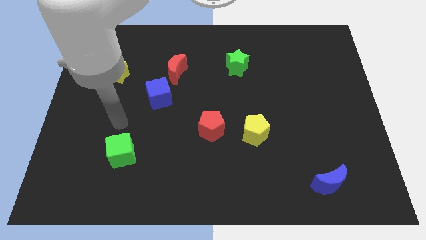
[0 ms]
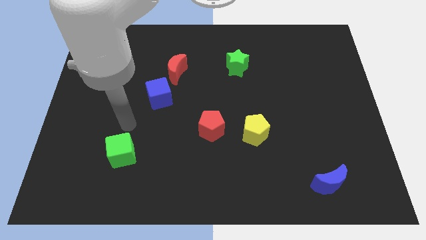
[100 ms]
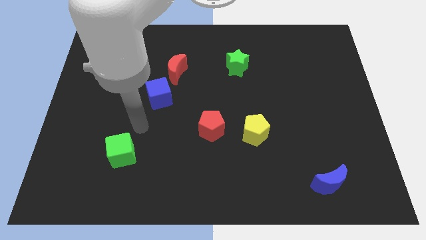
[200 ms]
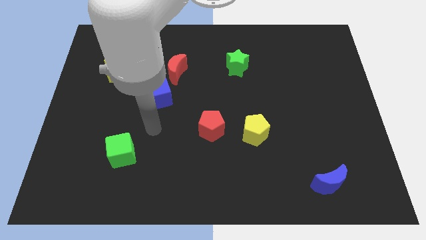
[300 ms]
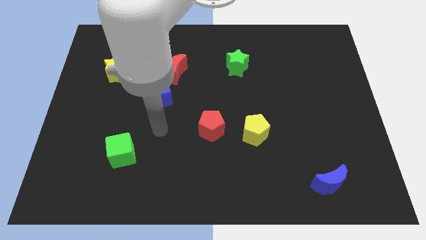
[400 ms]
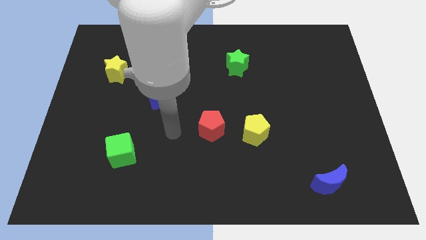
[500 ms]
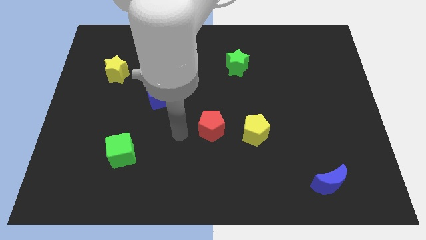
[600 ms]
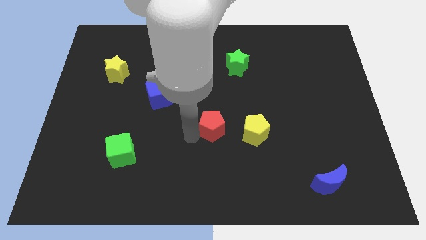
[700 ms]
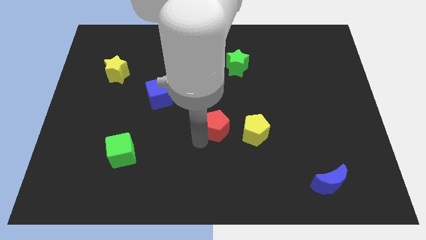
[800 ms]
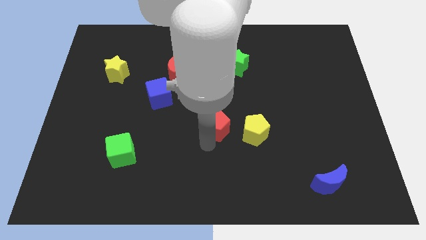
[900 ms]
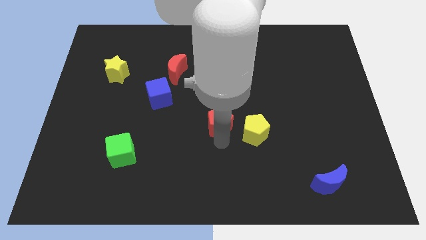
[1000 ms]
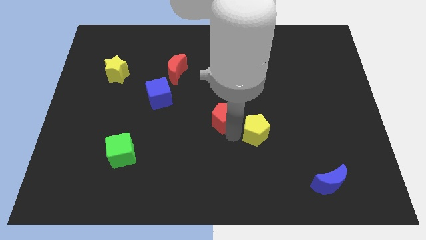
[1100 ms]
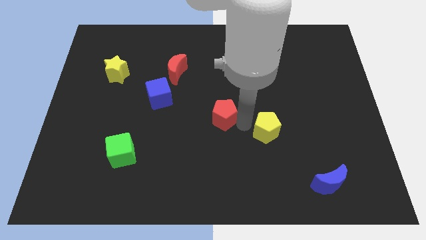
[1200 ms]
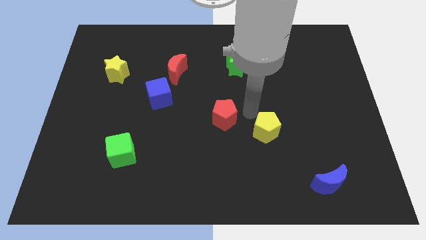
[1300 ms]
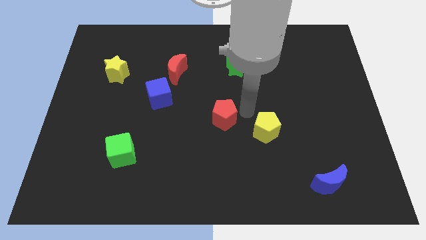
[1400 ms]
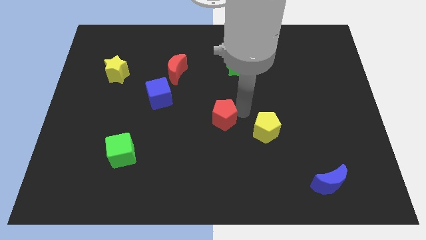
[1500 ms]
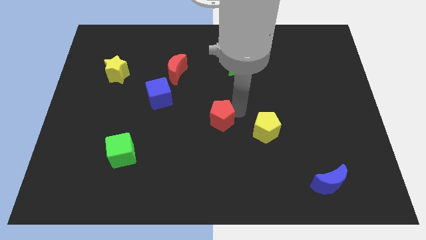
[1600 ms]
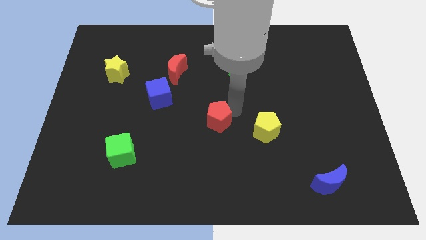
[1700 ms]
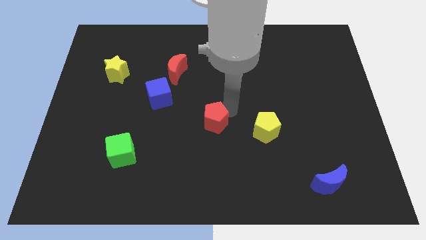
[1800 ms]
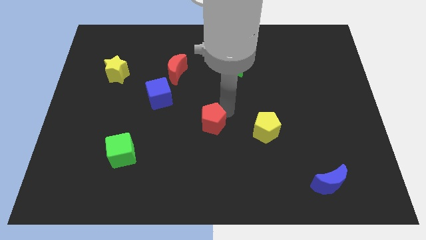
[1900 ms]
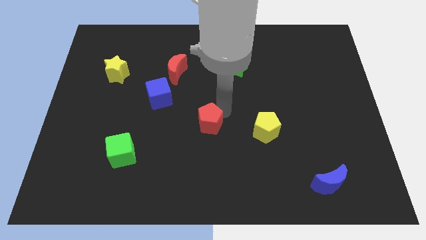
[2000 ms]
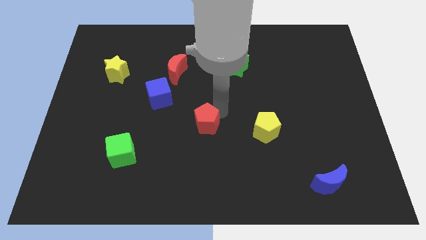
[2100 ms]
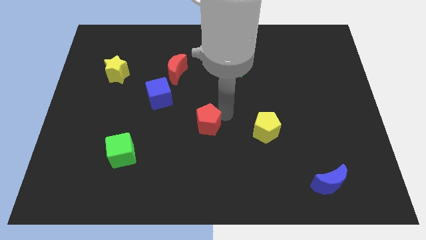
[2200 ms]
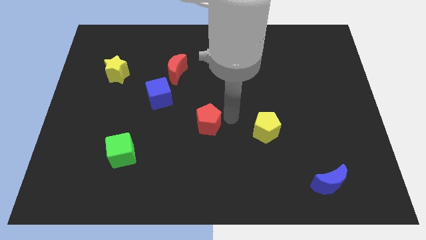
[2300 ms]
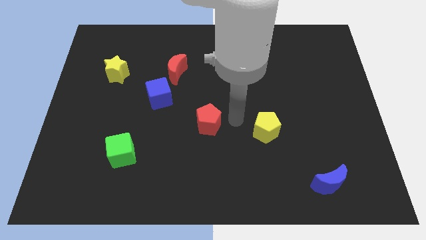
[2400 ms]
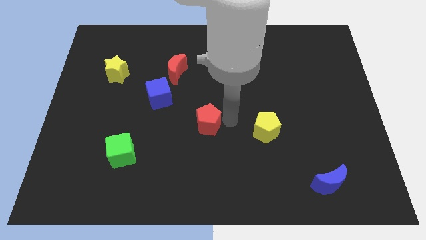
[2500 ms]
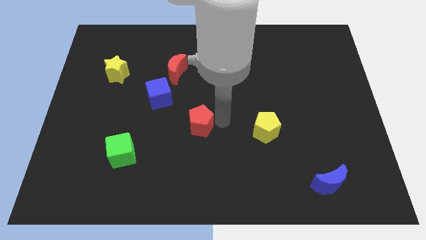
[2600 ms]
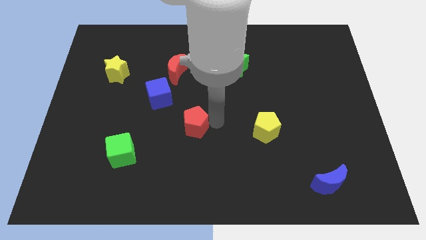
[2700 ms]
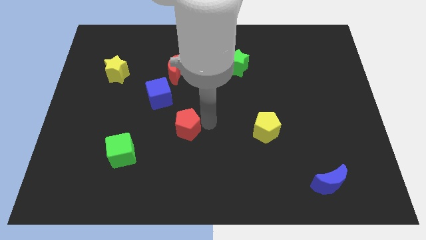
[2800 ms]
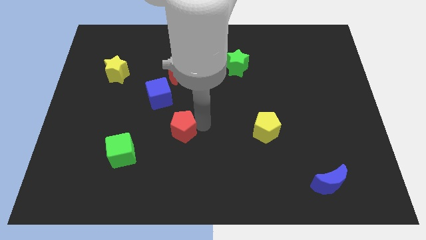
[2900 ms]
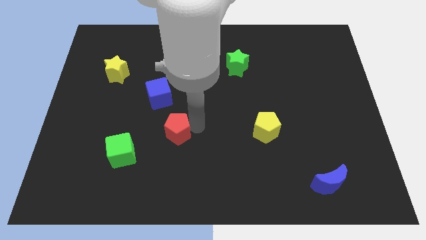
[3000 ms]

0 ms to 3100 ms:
slightly slide the red pentagon to the left

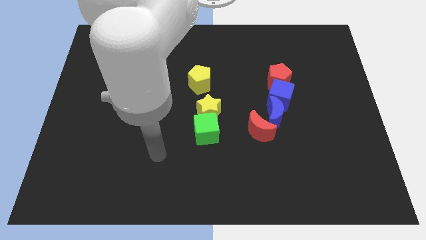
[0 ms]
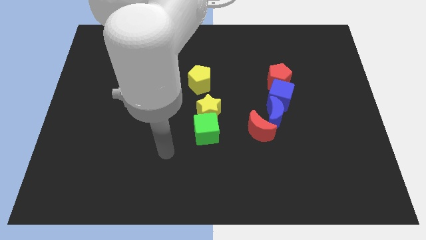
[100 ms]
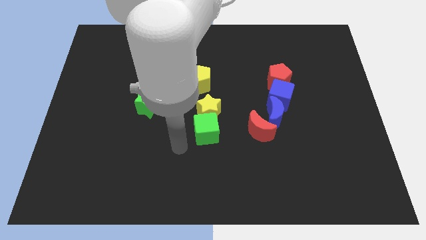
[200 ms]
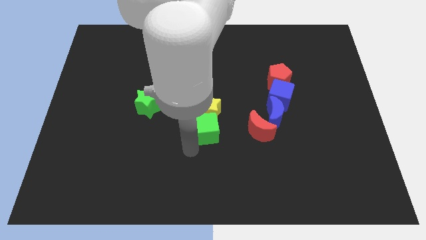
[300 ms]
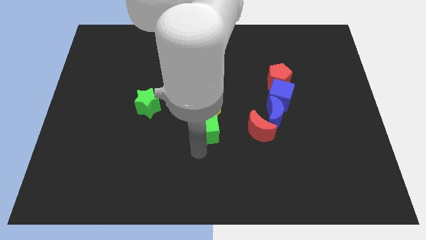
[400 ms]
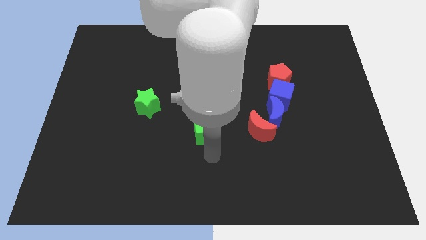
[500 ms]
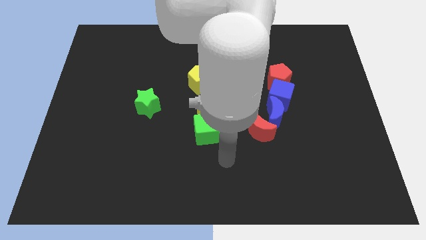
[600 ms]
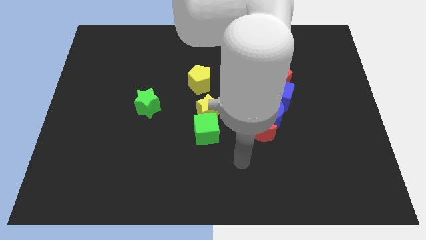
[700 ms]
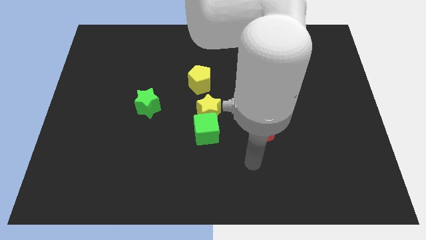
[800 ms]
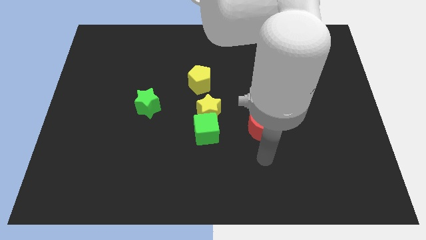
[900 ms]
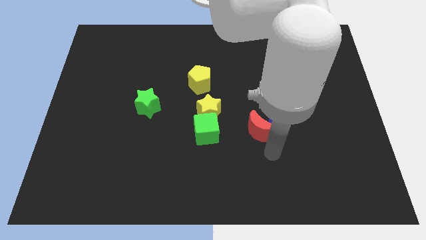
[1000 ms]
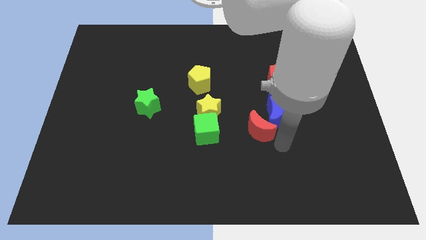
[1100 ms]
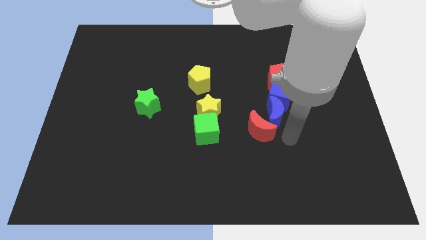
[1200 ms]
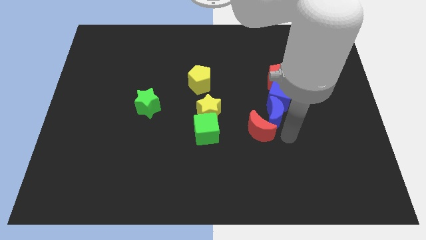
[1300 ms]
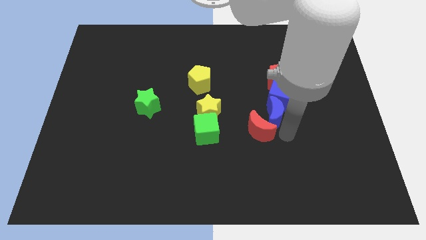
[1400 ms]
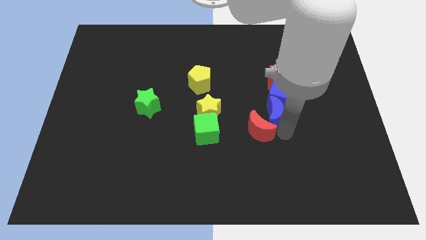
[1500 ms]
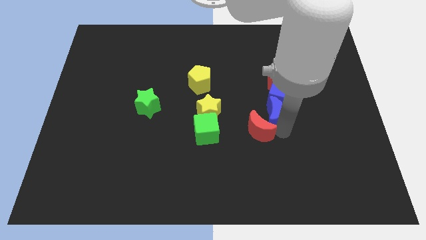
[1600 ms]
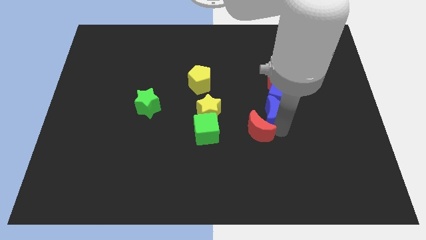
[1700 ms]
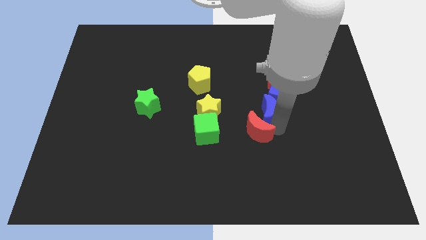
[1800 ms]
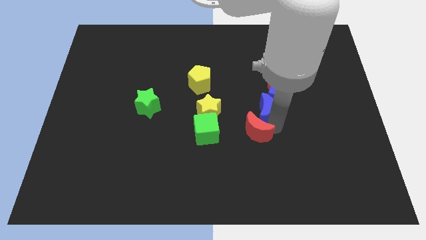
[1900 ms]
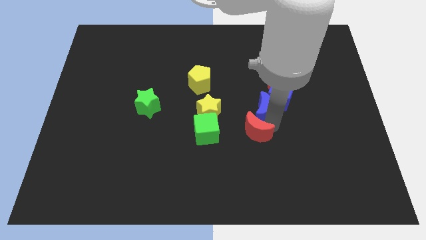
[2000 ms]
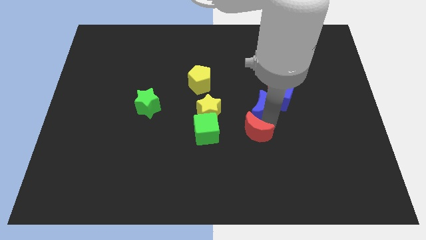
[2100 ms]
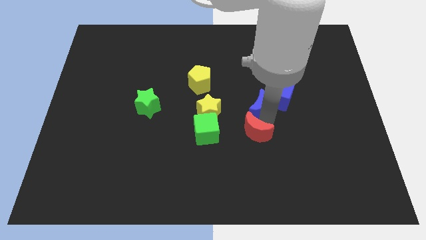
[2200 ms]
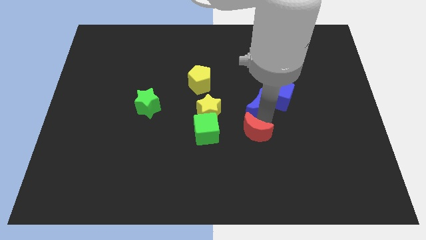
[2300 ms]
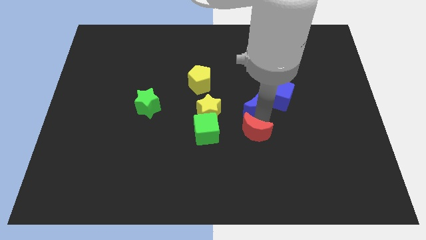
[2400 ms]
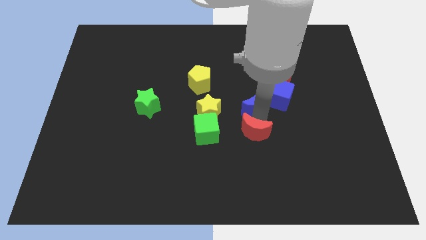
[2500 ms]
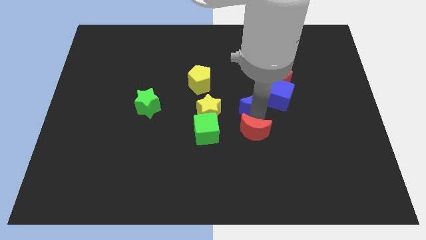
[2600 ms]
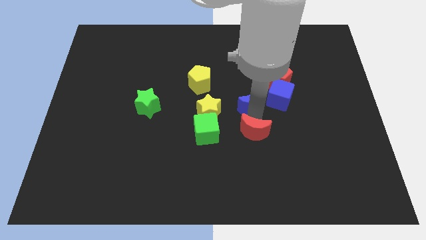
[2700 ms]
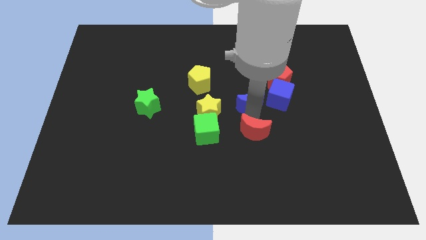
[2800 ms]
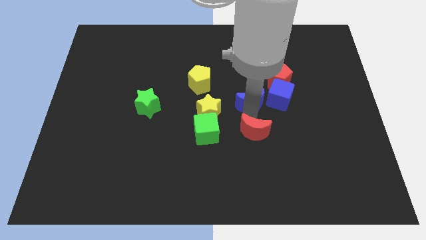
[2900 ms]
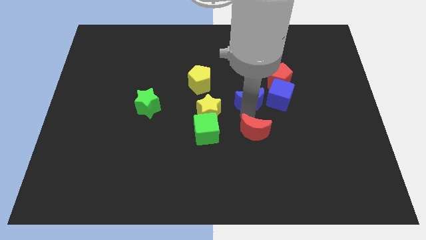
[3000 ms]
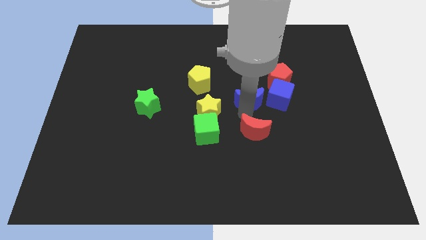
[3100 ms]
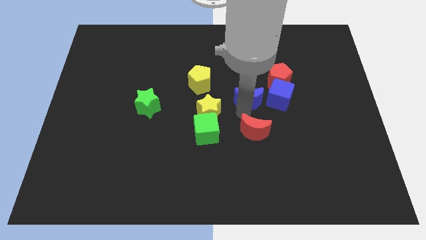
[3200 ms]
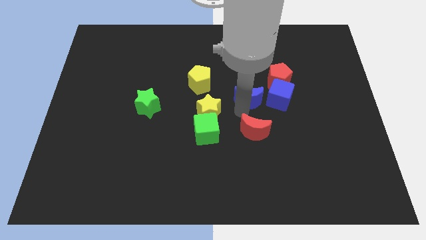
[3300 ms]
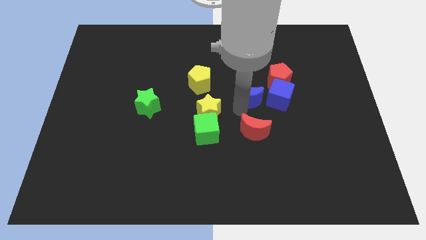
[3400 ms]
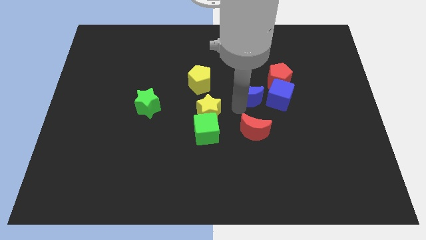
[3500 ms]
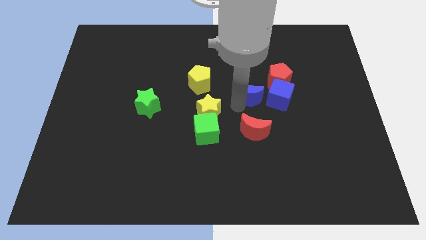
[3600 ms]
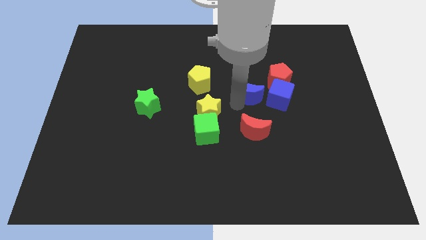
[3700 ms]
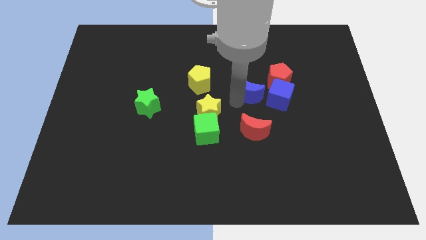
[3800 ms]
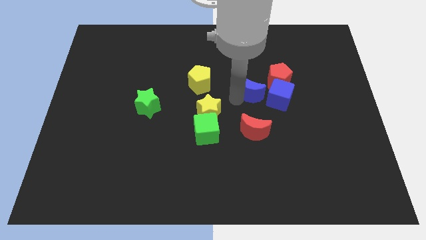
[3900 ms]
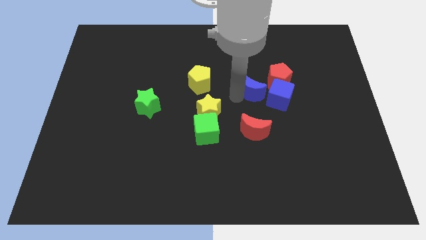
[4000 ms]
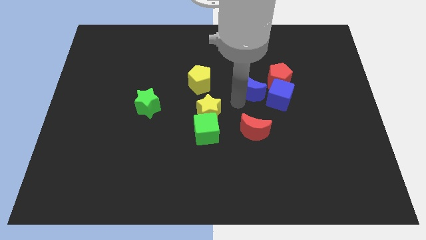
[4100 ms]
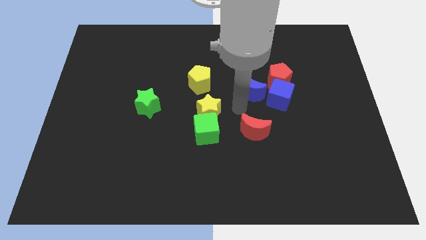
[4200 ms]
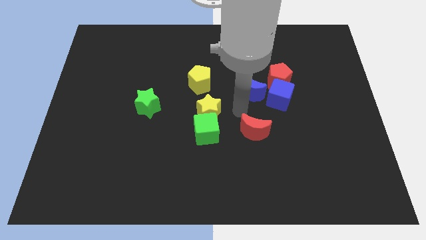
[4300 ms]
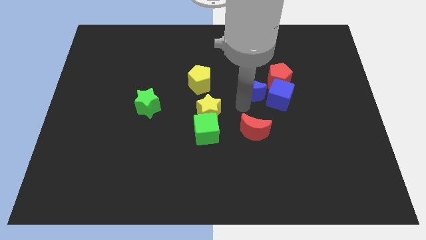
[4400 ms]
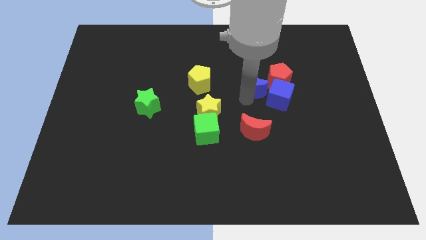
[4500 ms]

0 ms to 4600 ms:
move the blue moon somewhat upwards

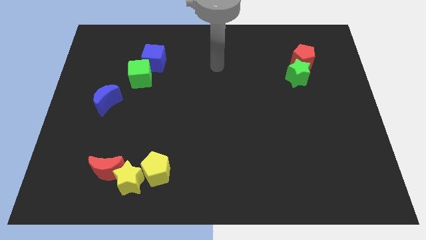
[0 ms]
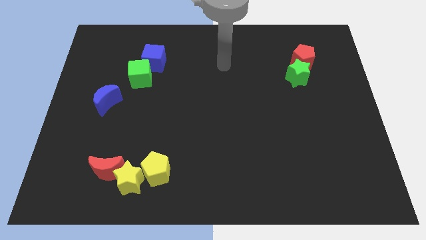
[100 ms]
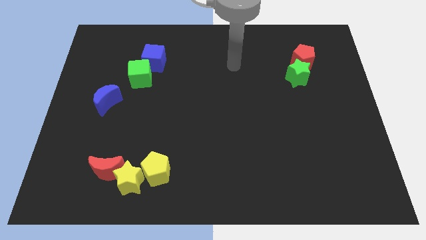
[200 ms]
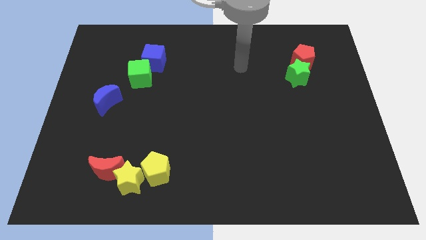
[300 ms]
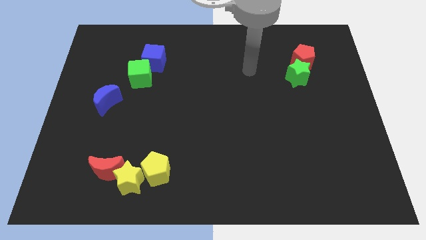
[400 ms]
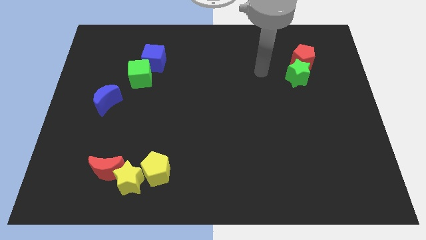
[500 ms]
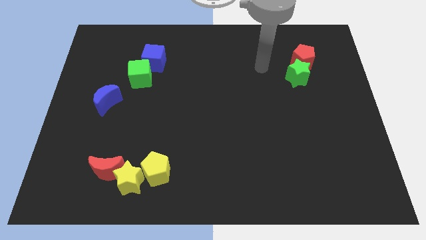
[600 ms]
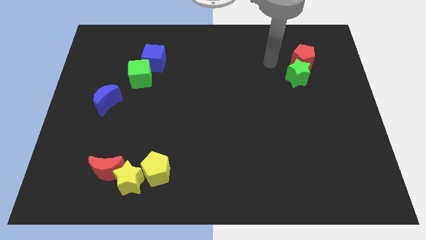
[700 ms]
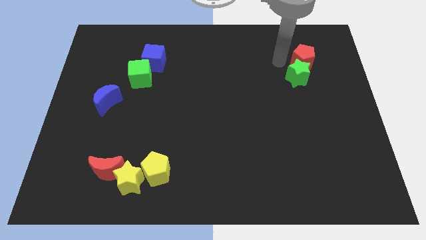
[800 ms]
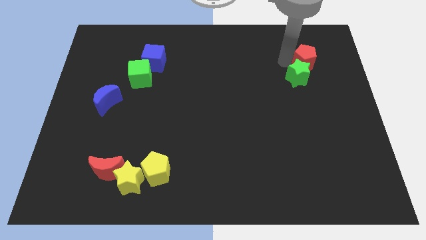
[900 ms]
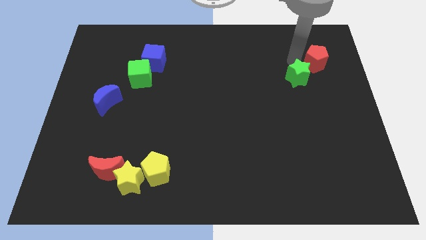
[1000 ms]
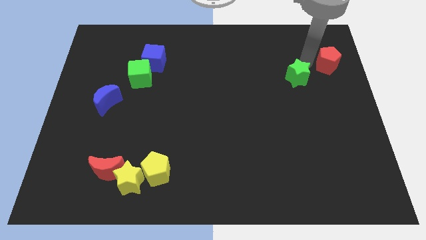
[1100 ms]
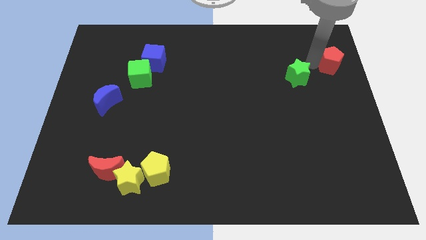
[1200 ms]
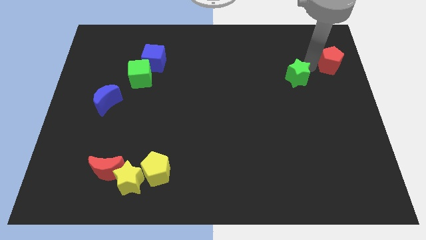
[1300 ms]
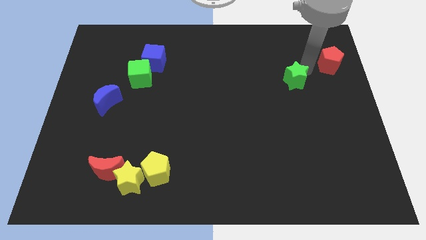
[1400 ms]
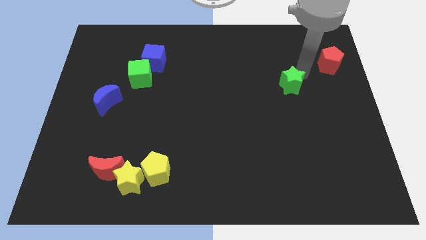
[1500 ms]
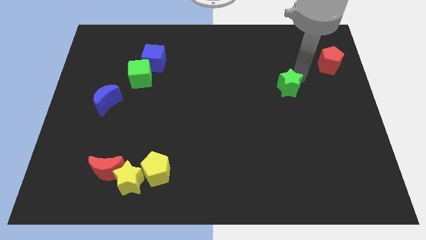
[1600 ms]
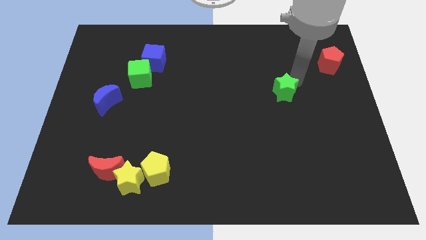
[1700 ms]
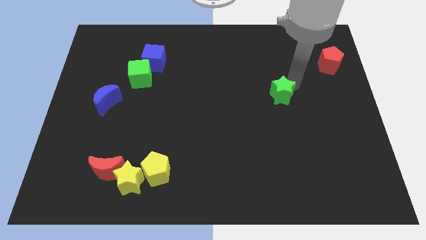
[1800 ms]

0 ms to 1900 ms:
push the green star a bit diagonally down and left
